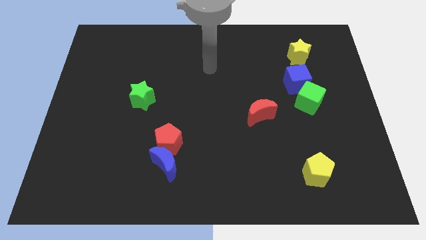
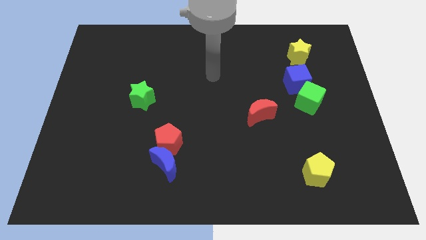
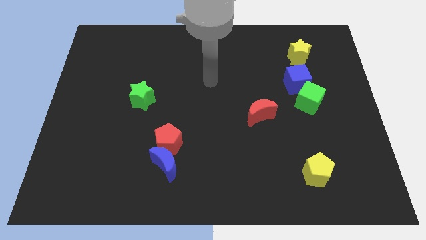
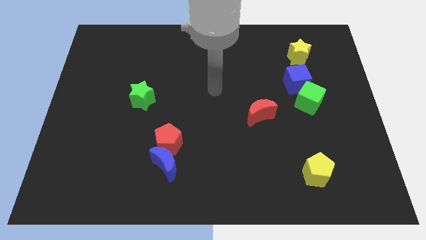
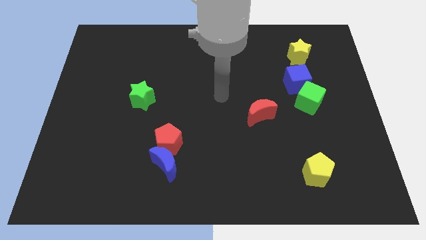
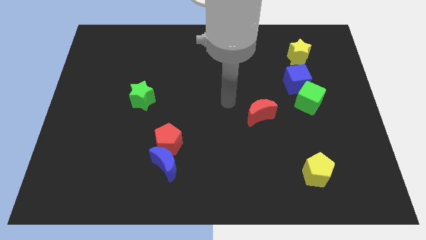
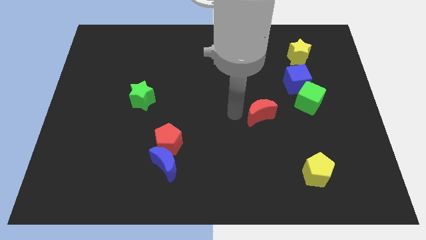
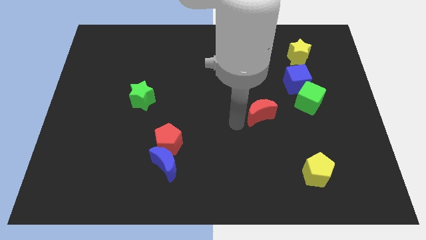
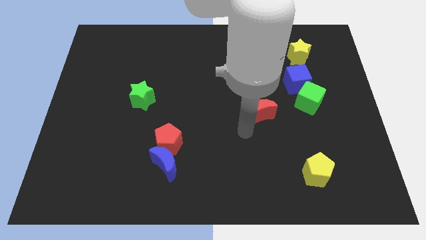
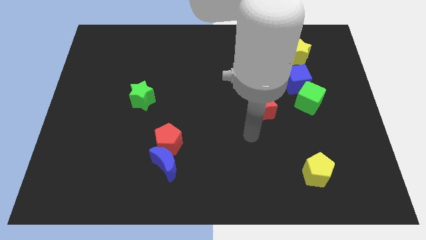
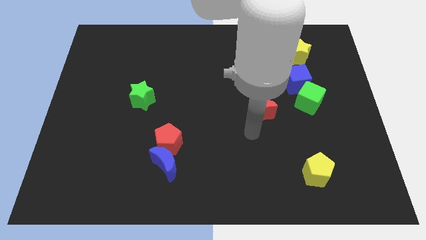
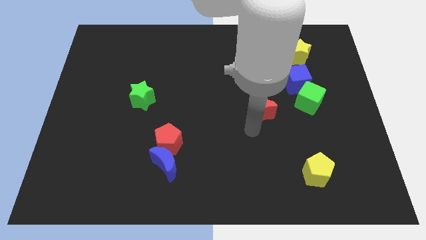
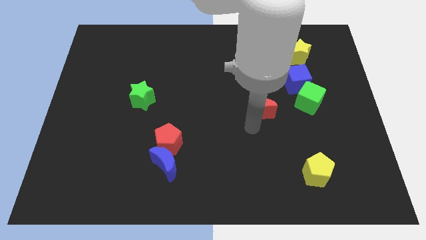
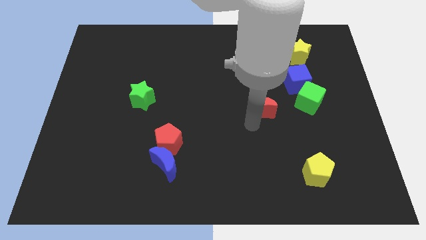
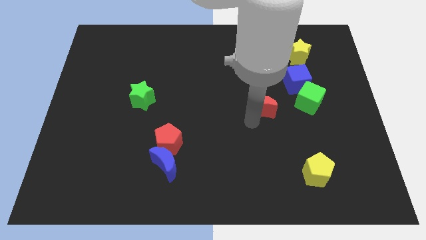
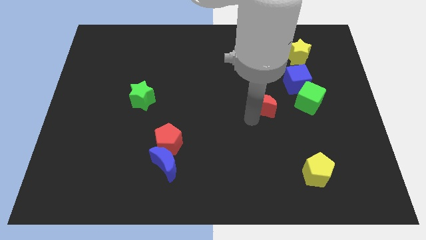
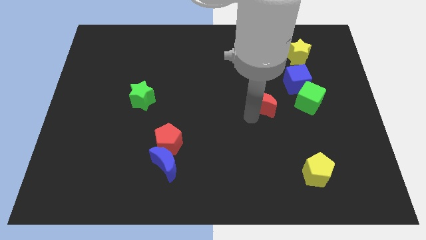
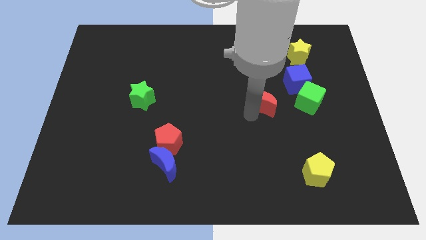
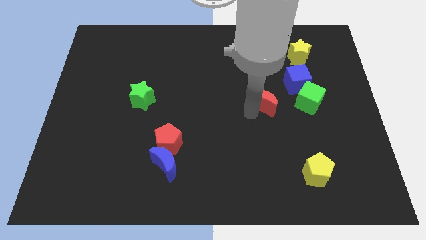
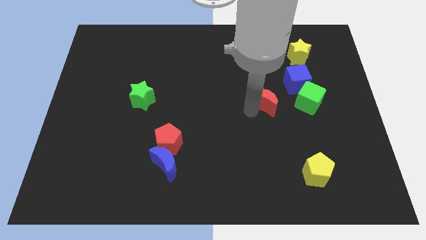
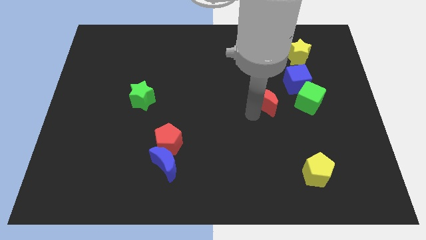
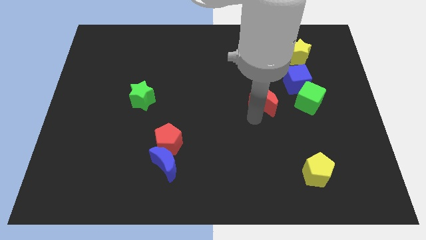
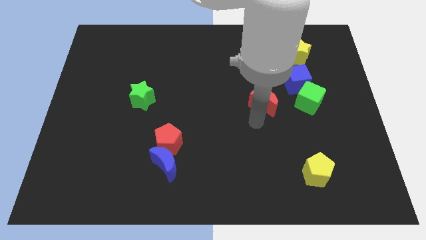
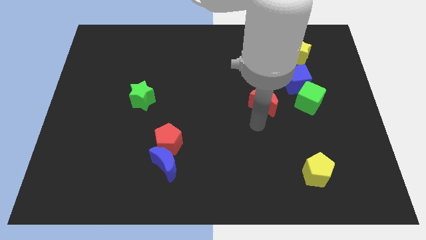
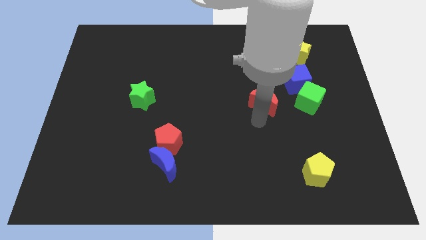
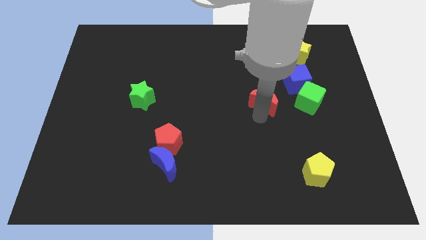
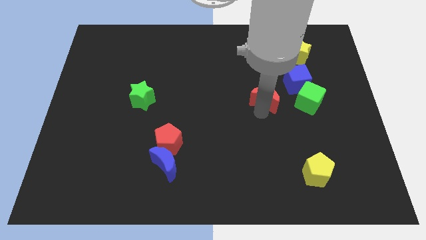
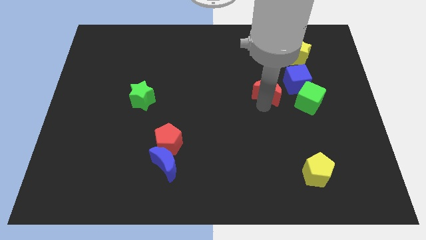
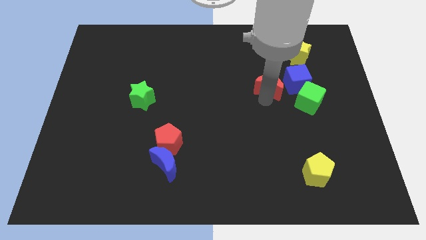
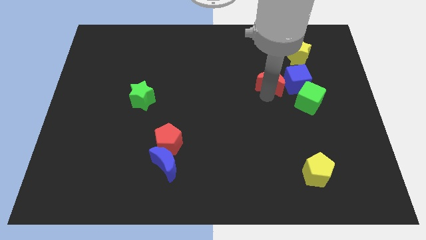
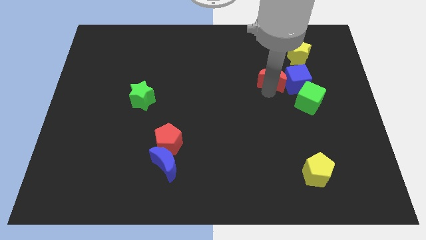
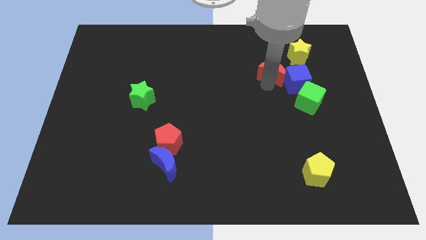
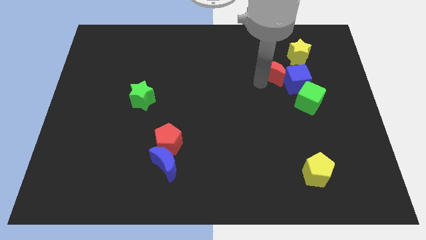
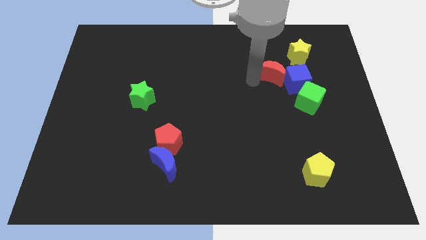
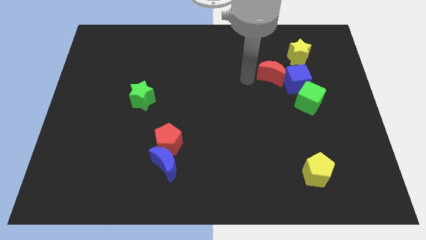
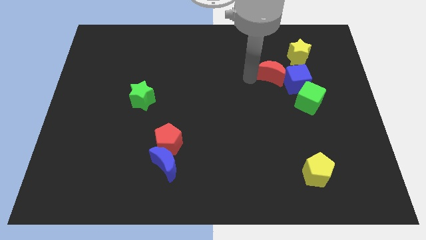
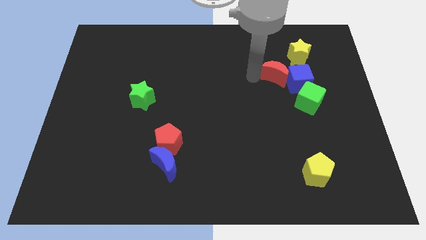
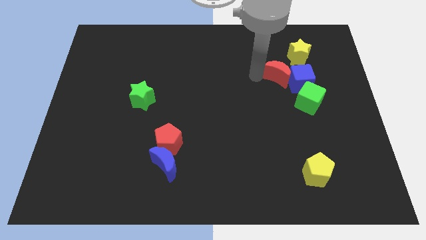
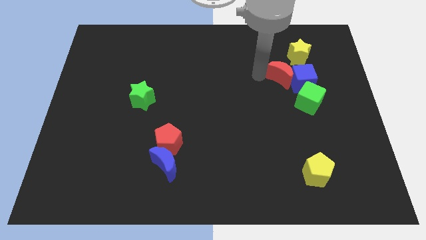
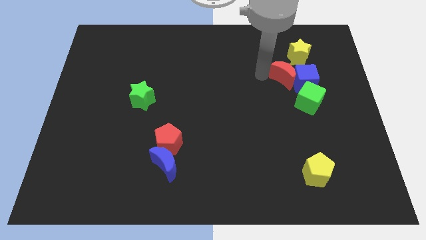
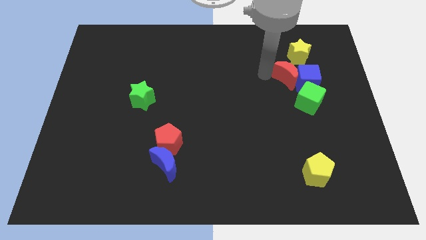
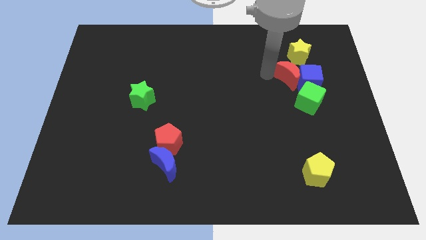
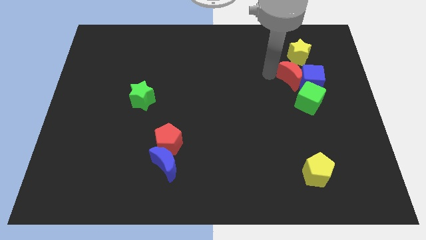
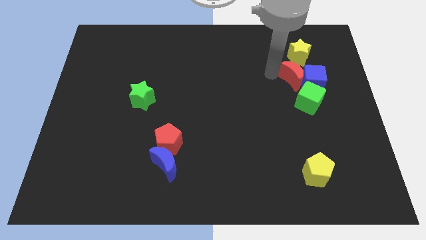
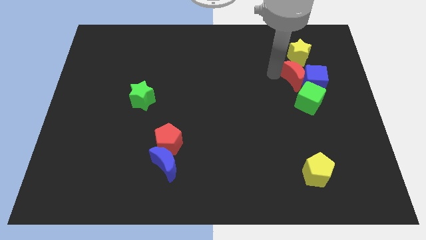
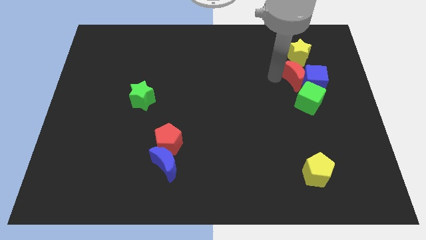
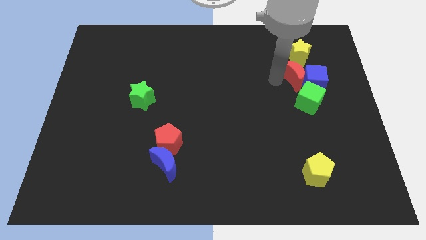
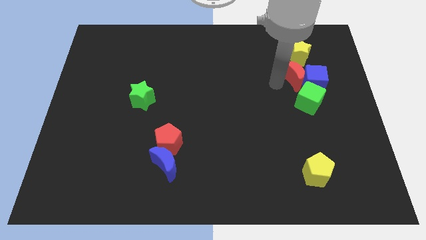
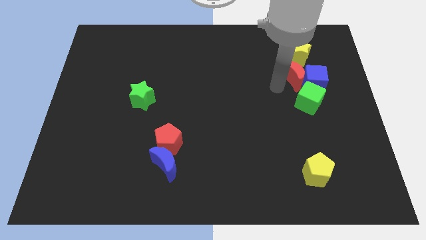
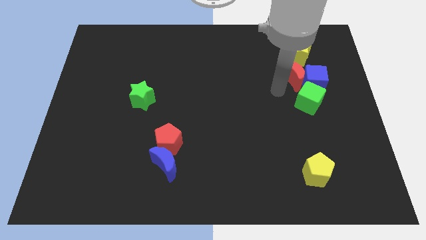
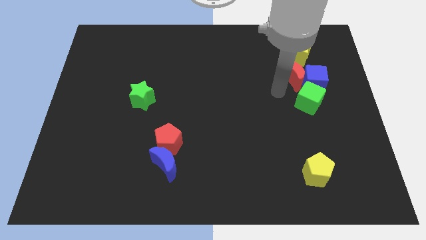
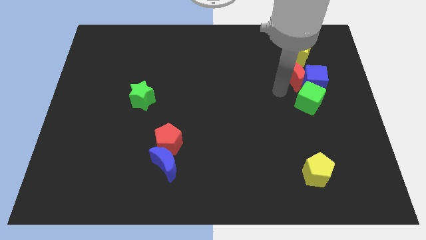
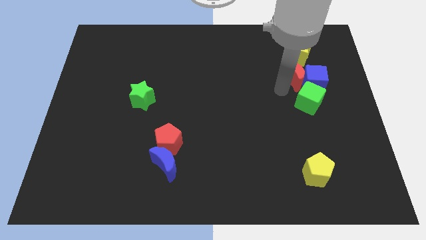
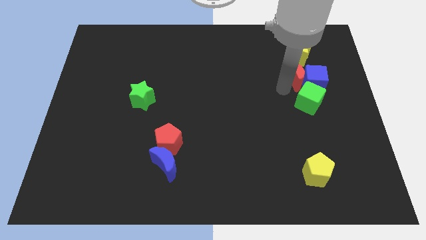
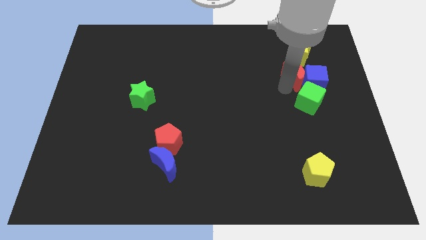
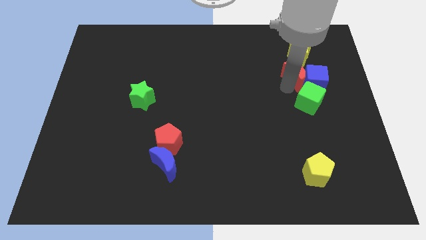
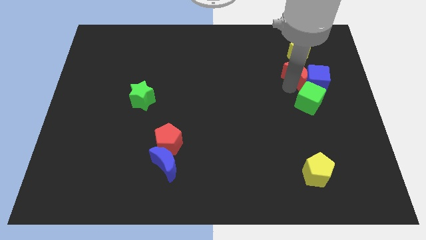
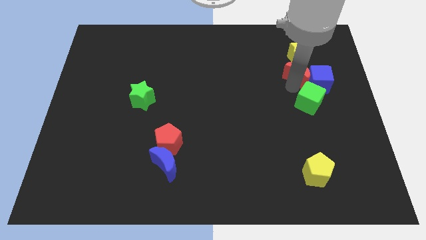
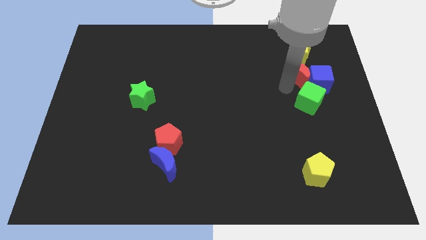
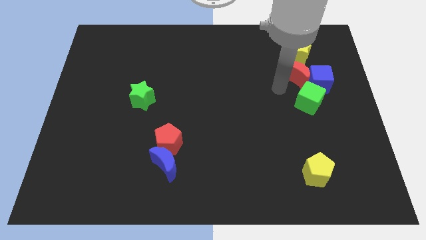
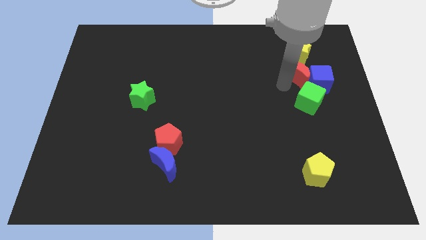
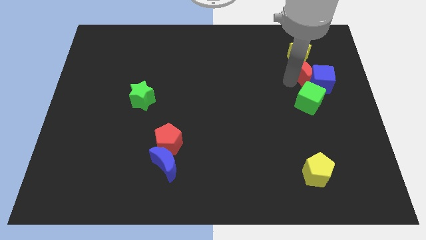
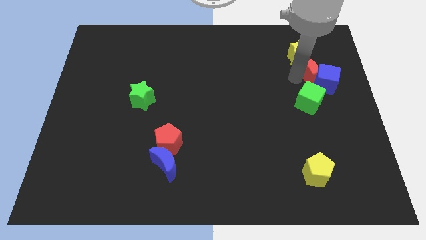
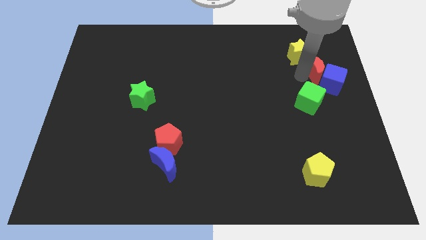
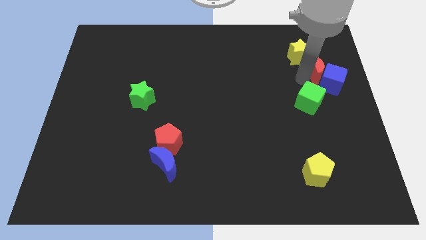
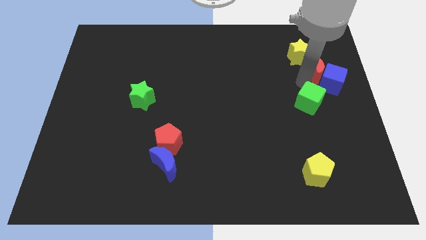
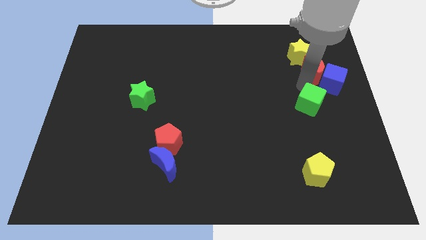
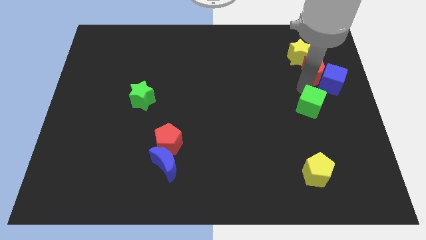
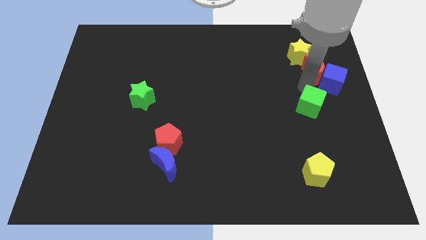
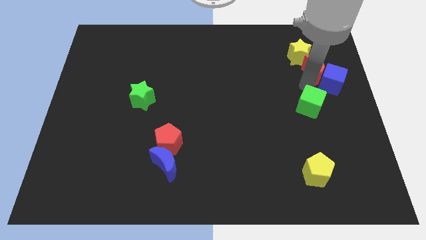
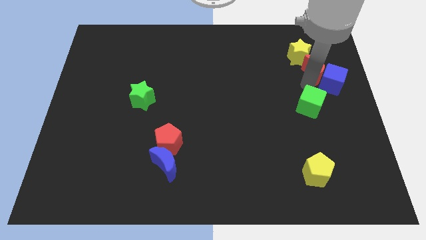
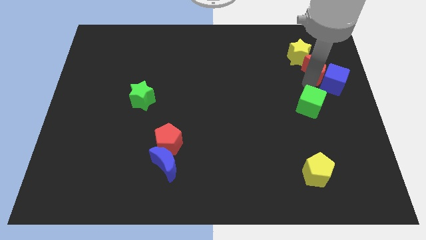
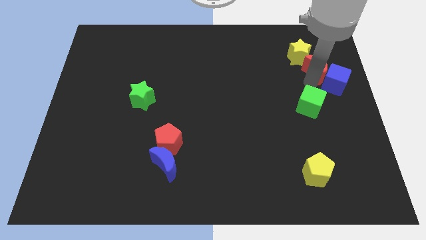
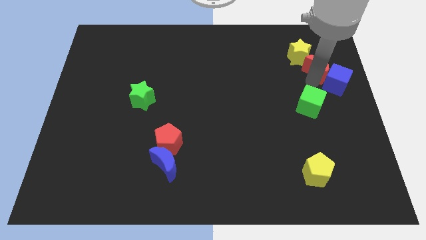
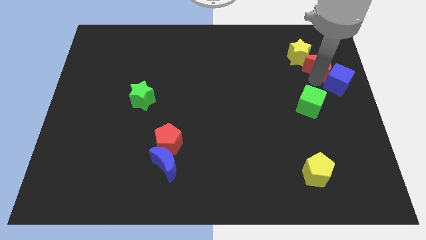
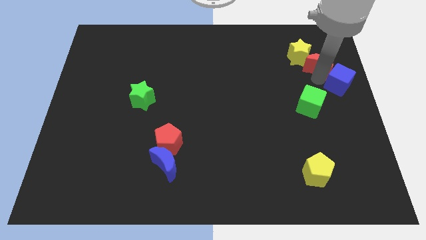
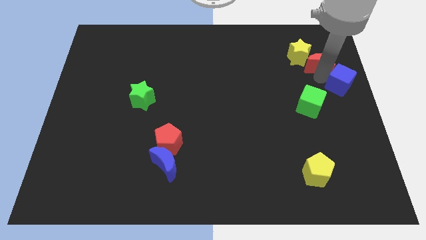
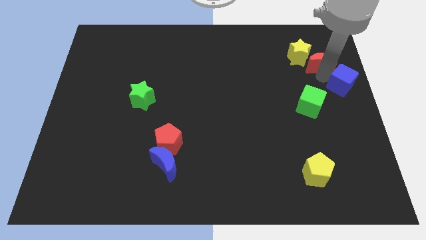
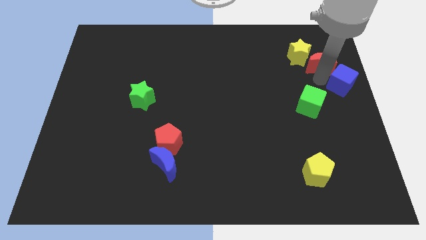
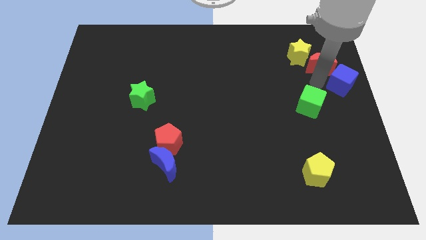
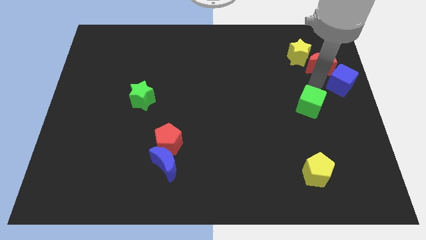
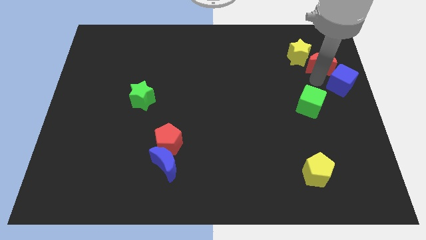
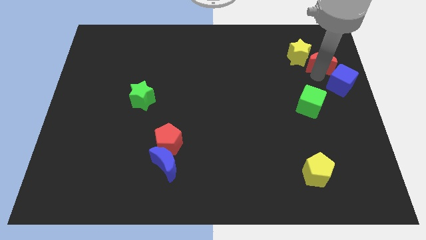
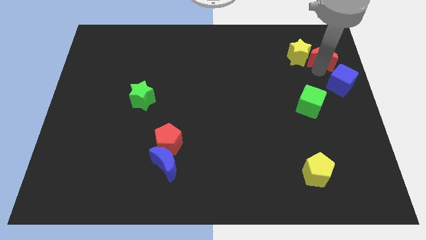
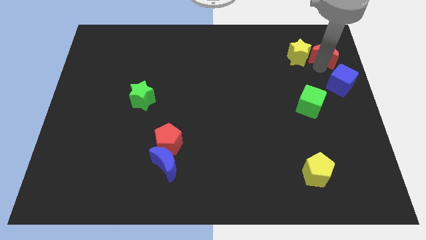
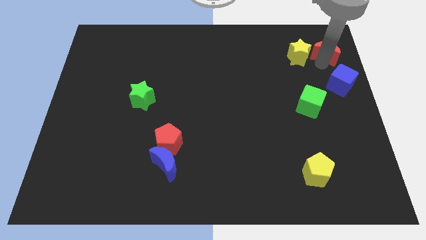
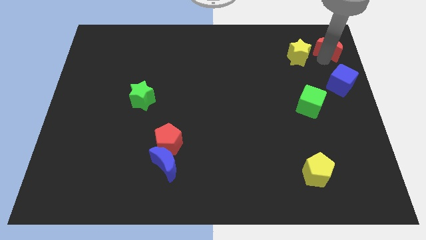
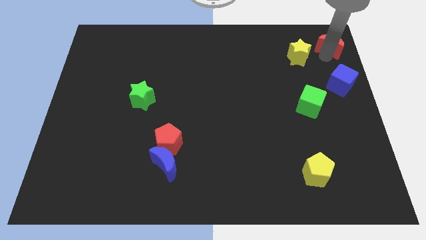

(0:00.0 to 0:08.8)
push the red moon to the upper right corner
